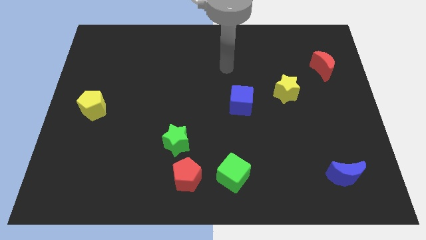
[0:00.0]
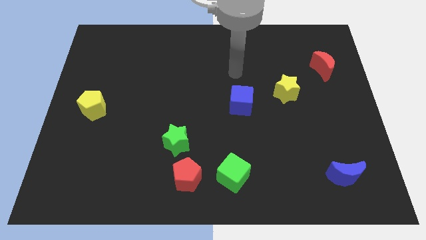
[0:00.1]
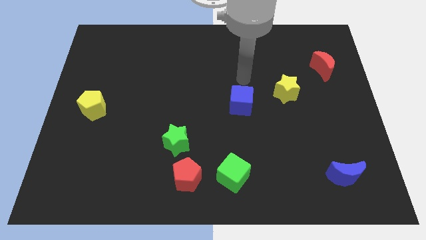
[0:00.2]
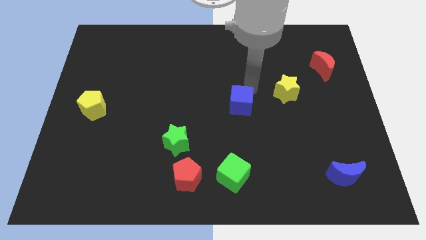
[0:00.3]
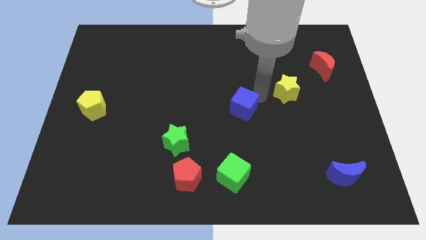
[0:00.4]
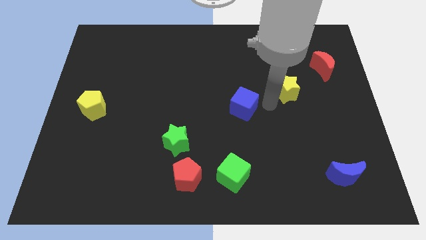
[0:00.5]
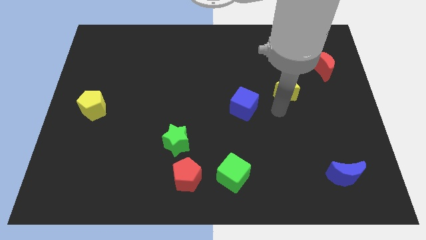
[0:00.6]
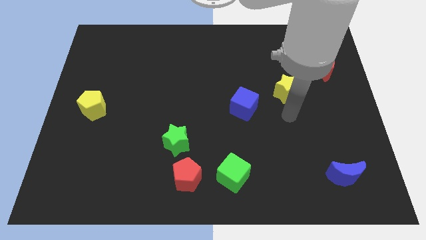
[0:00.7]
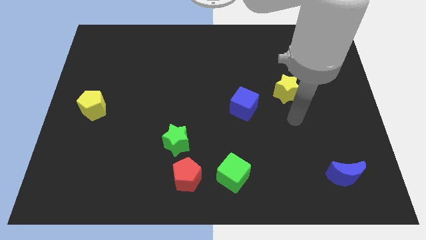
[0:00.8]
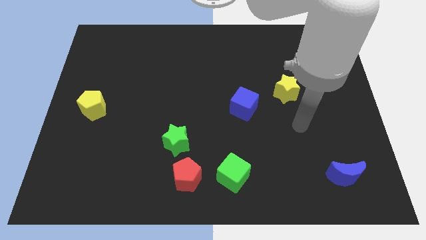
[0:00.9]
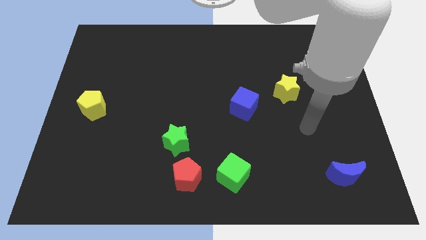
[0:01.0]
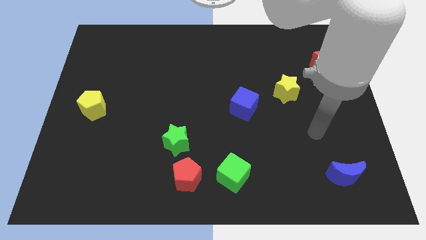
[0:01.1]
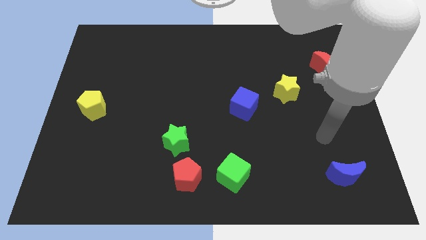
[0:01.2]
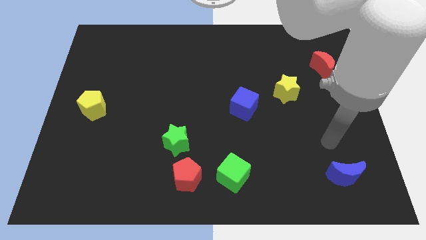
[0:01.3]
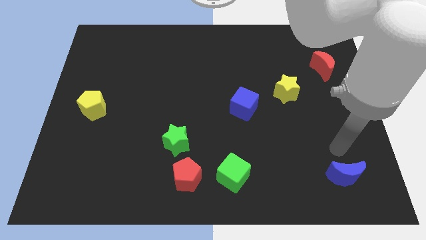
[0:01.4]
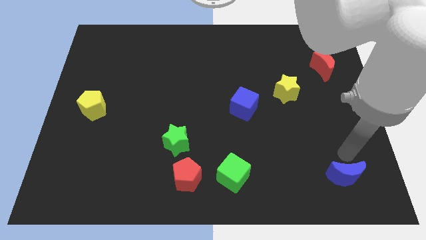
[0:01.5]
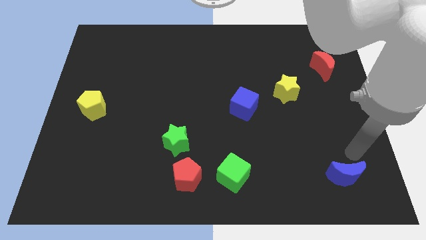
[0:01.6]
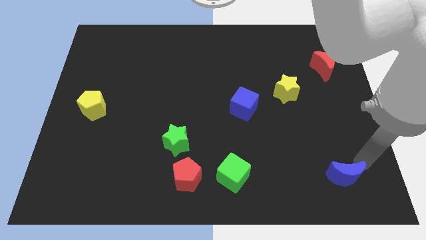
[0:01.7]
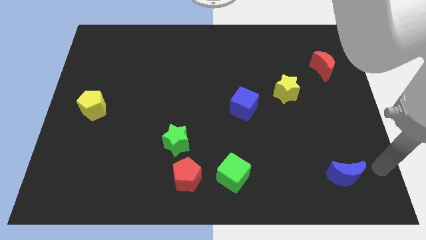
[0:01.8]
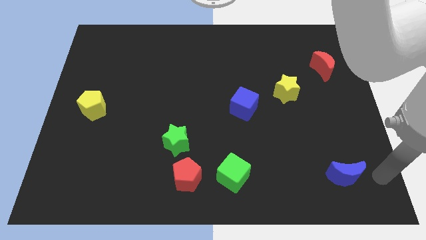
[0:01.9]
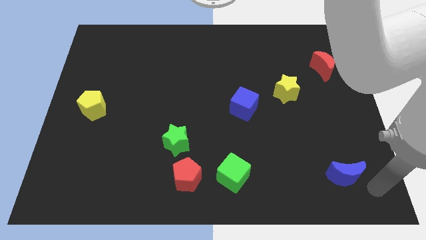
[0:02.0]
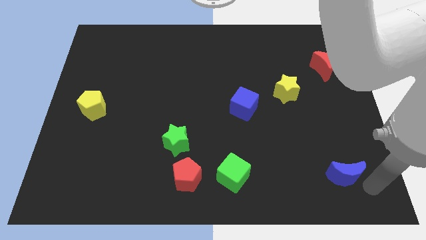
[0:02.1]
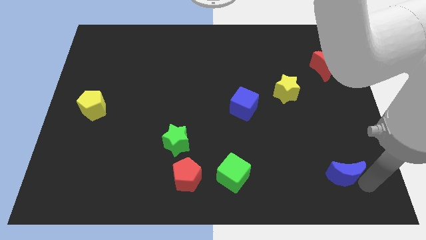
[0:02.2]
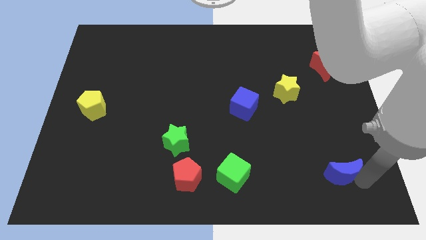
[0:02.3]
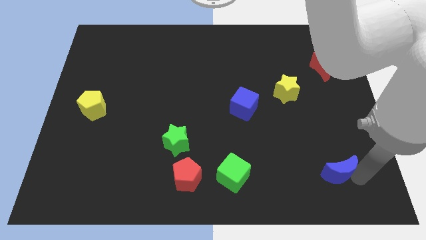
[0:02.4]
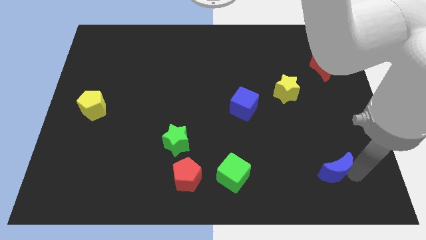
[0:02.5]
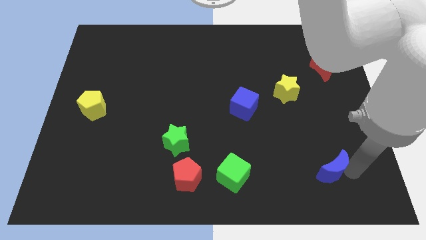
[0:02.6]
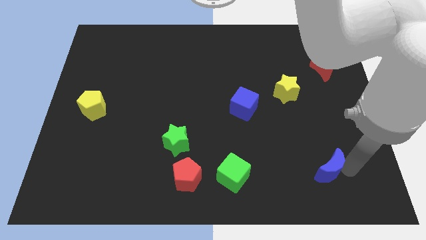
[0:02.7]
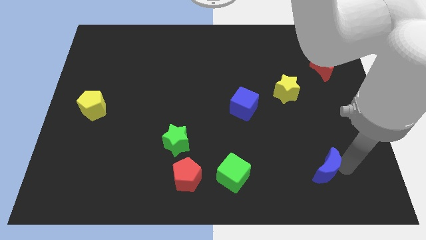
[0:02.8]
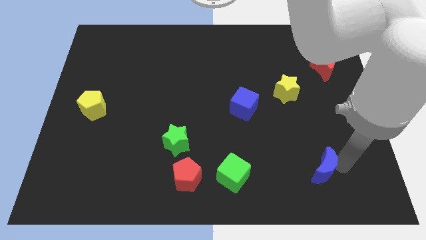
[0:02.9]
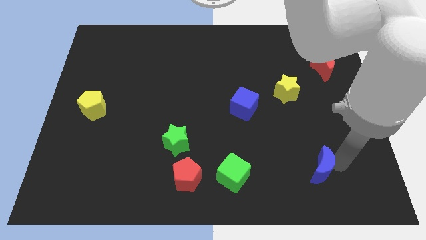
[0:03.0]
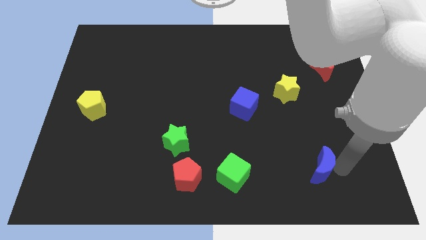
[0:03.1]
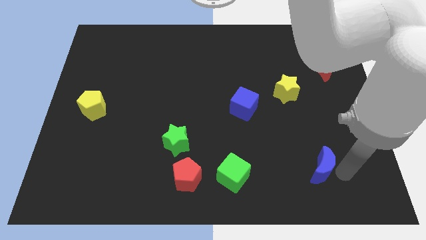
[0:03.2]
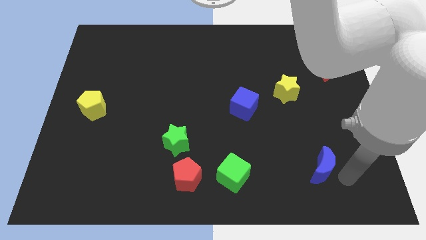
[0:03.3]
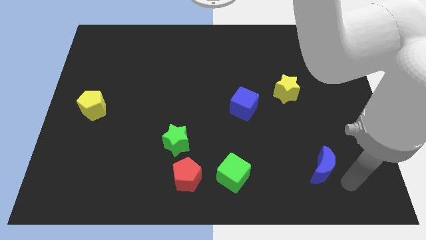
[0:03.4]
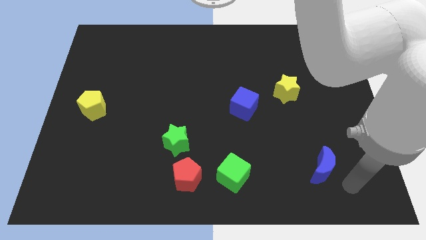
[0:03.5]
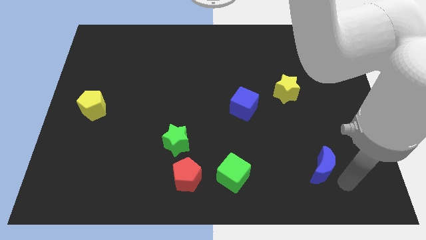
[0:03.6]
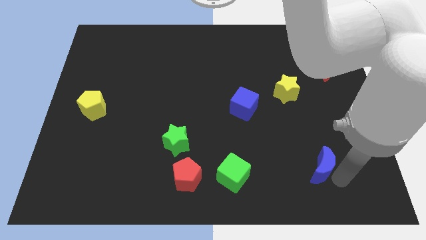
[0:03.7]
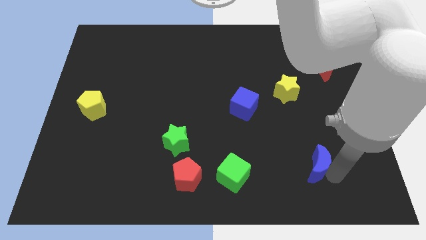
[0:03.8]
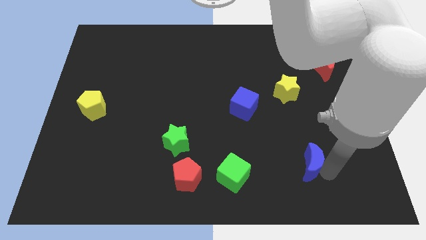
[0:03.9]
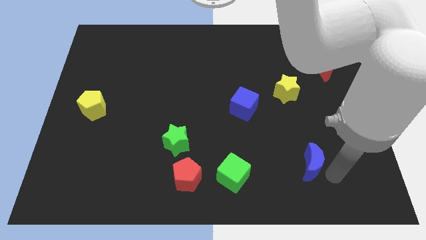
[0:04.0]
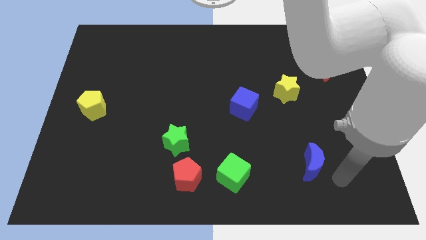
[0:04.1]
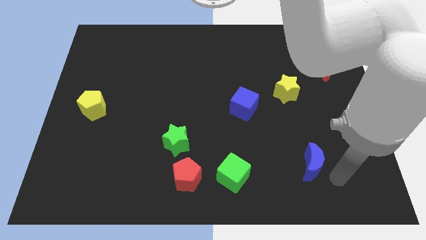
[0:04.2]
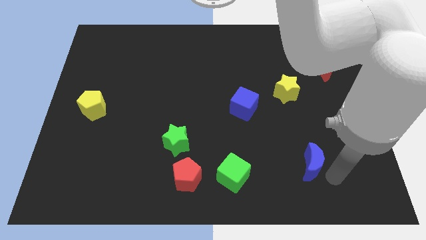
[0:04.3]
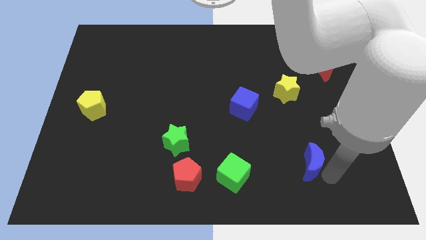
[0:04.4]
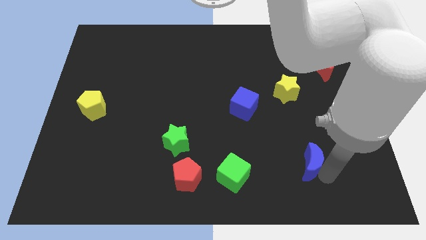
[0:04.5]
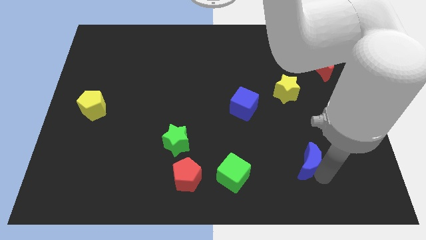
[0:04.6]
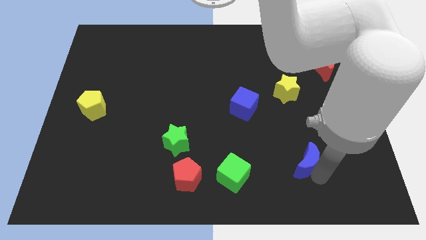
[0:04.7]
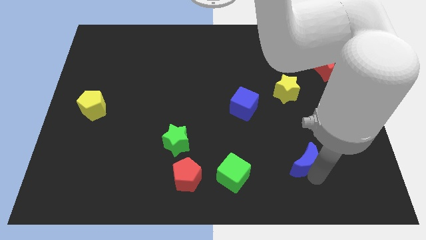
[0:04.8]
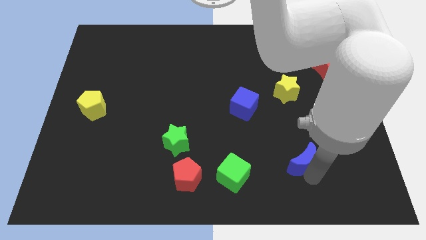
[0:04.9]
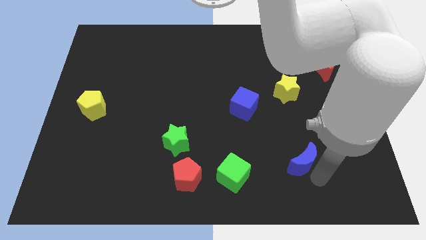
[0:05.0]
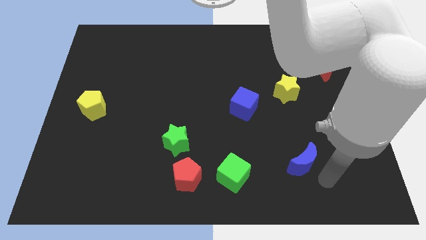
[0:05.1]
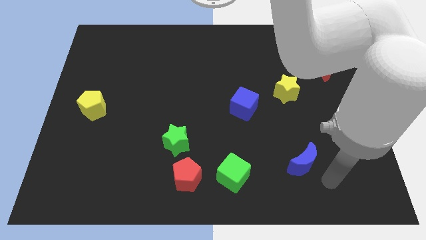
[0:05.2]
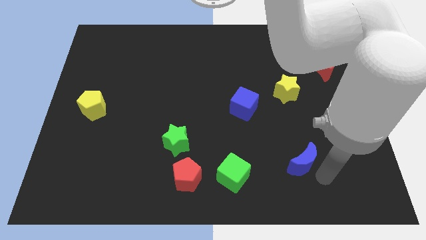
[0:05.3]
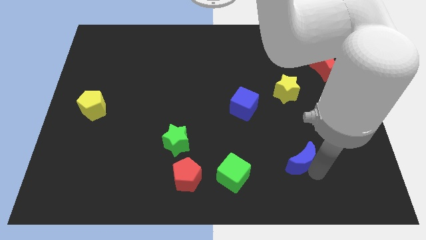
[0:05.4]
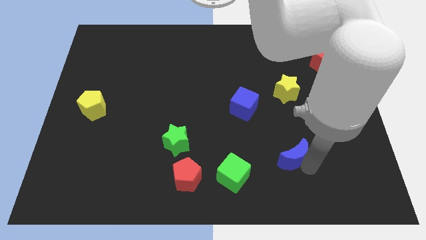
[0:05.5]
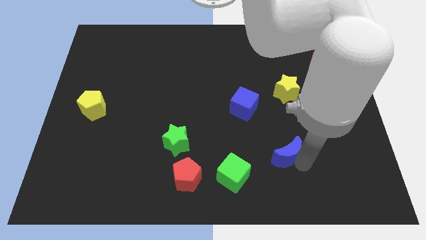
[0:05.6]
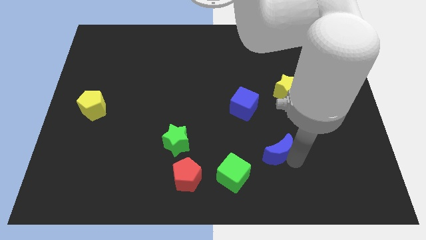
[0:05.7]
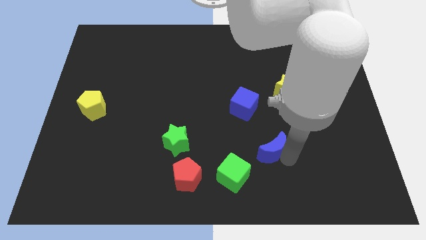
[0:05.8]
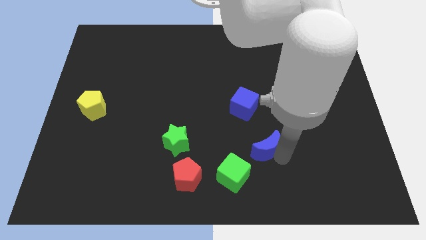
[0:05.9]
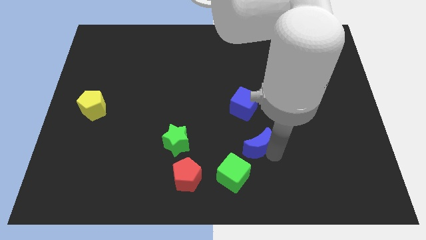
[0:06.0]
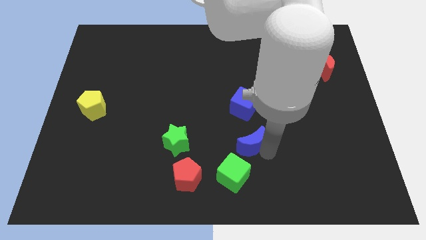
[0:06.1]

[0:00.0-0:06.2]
slide the blue moon to the top side of the green cube

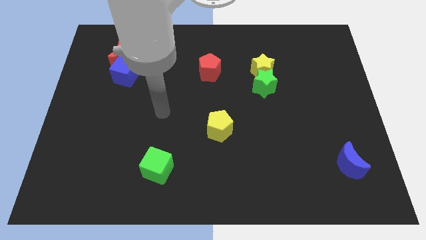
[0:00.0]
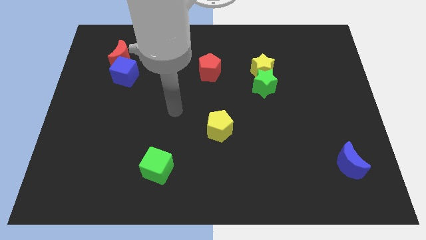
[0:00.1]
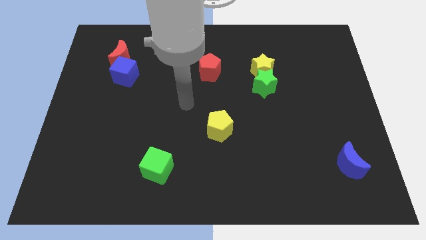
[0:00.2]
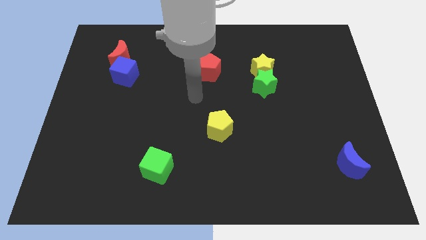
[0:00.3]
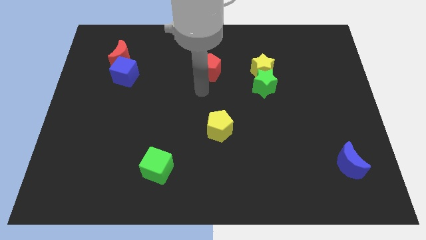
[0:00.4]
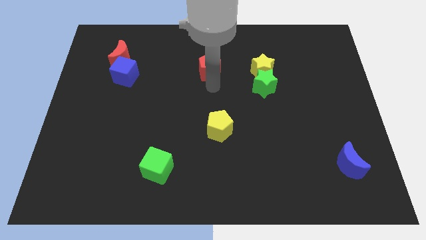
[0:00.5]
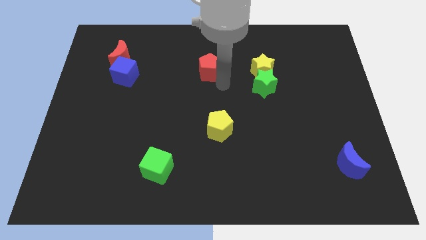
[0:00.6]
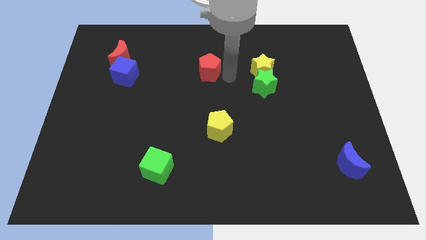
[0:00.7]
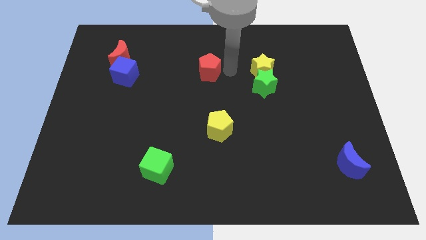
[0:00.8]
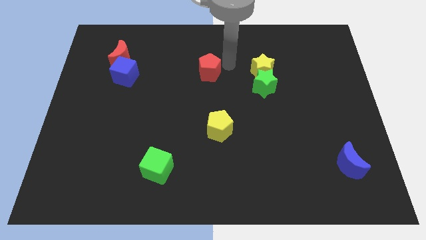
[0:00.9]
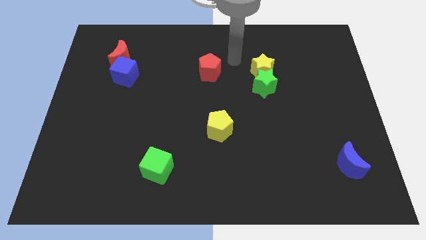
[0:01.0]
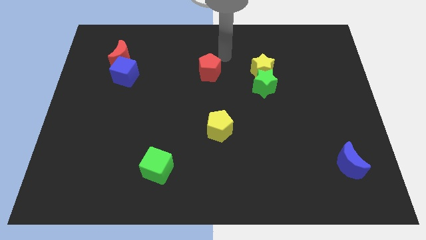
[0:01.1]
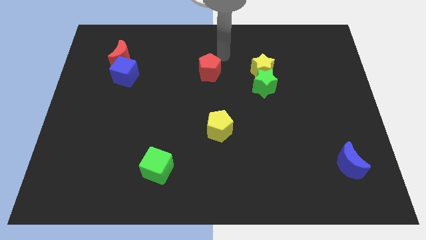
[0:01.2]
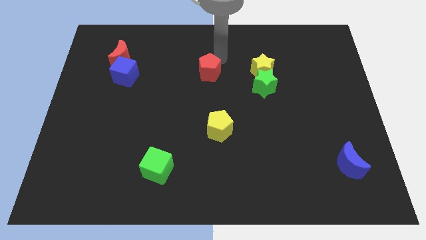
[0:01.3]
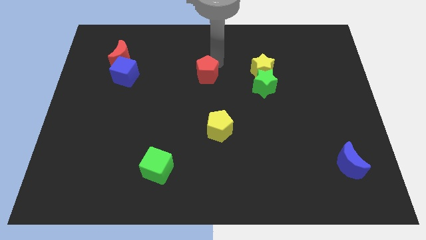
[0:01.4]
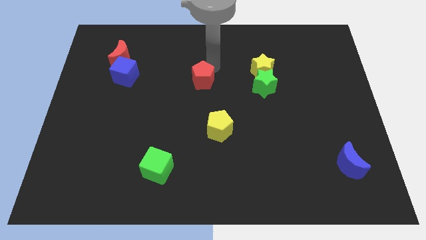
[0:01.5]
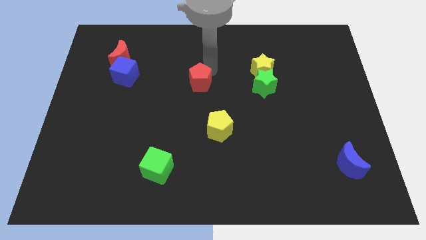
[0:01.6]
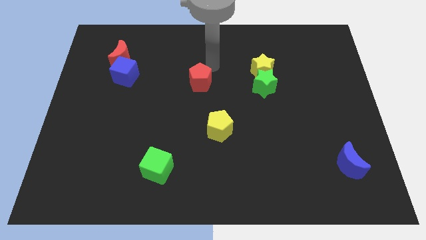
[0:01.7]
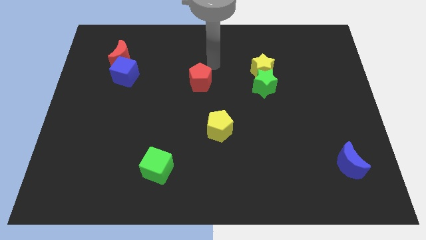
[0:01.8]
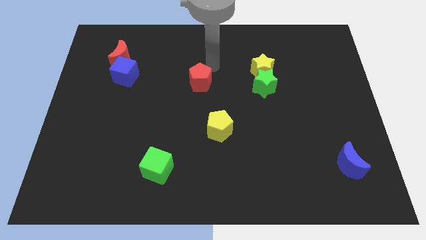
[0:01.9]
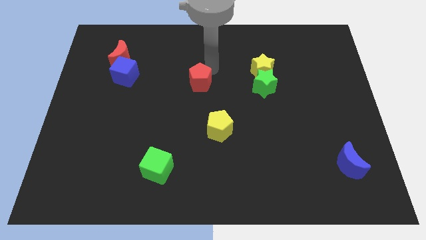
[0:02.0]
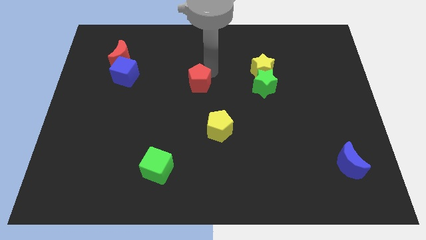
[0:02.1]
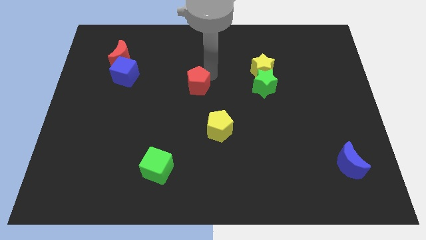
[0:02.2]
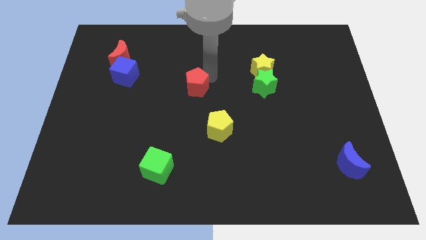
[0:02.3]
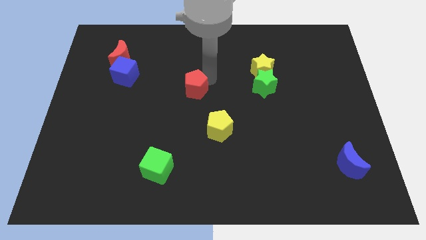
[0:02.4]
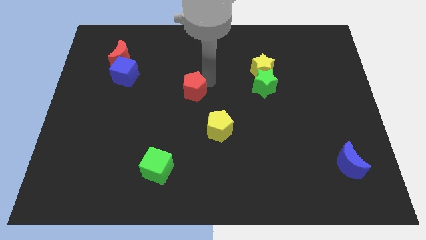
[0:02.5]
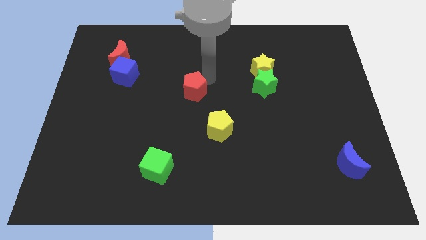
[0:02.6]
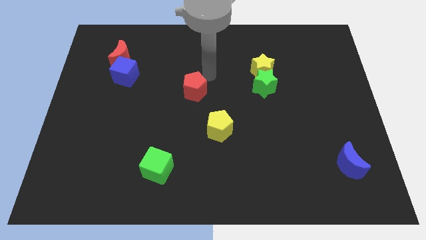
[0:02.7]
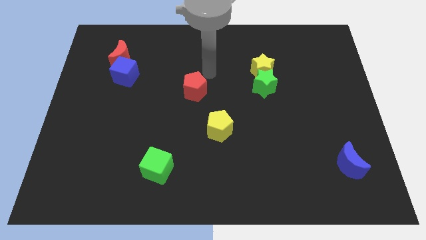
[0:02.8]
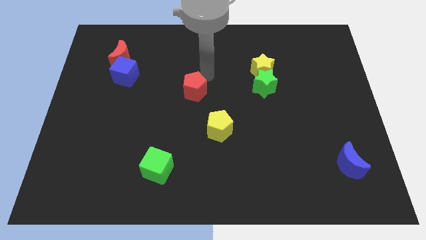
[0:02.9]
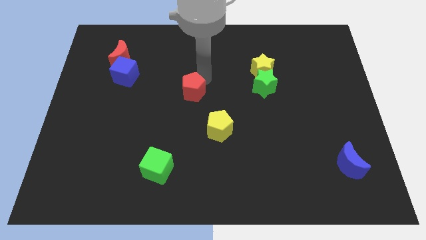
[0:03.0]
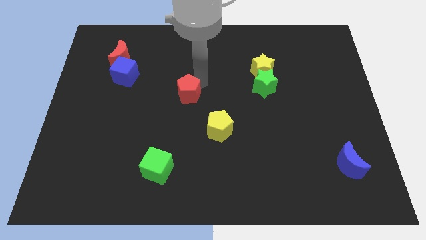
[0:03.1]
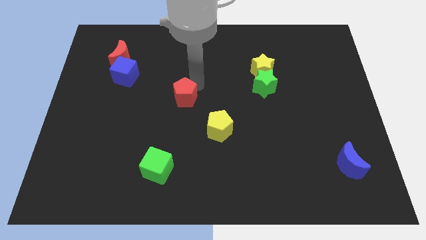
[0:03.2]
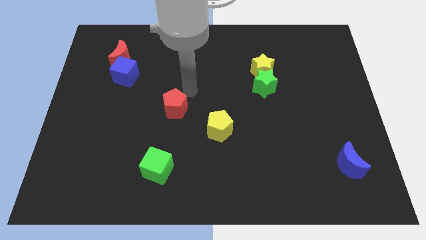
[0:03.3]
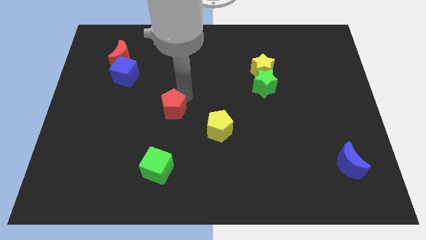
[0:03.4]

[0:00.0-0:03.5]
move the red pentagon to the top of the green cube
